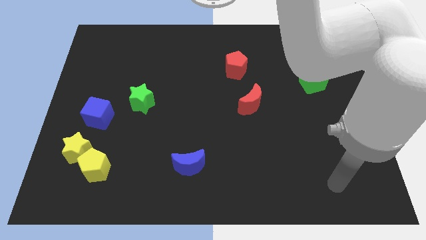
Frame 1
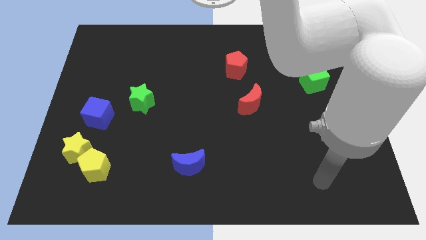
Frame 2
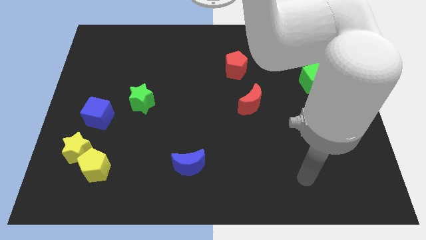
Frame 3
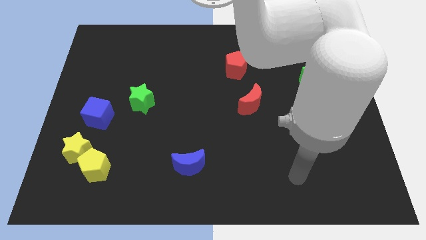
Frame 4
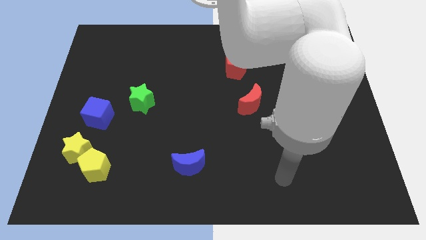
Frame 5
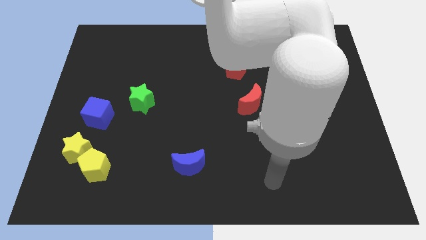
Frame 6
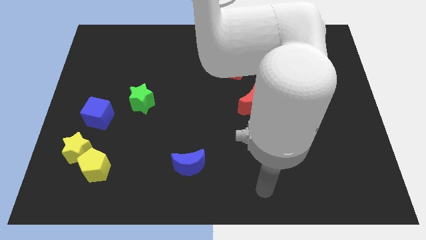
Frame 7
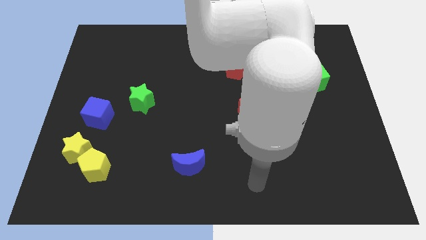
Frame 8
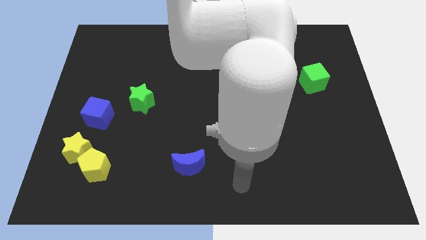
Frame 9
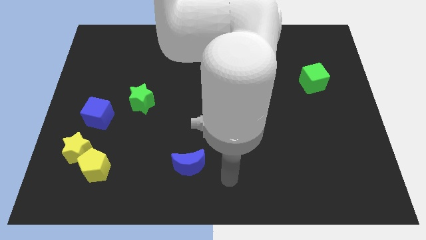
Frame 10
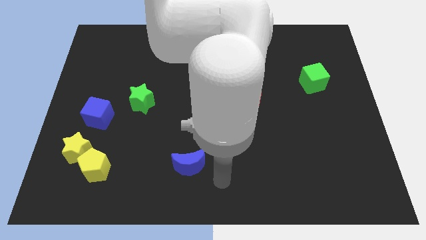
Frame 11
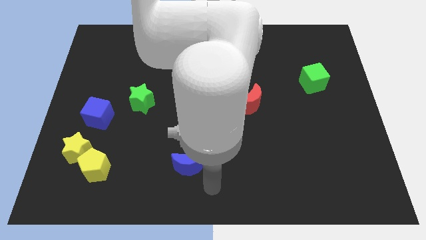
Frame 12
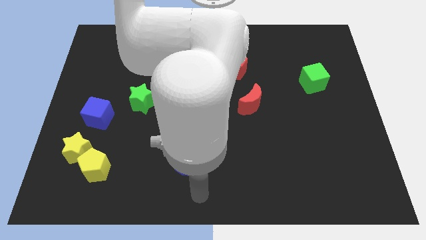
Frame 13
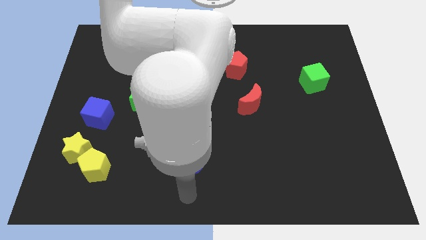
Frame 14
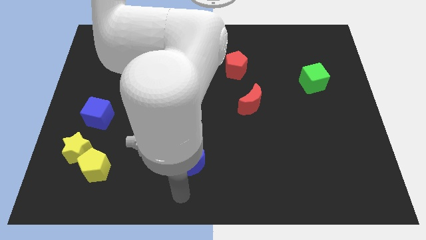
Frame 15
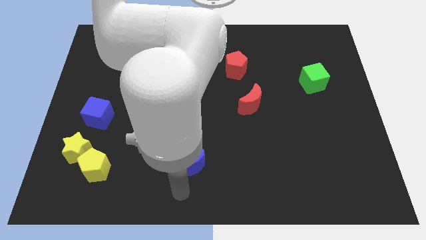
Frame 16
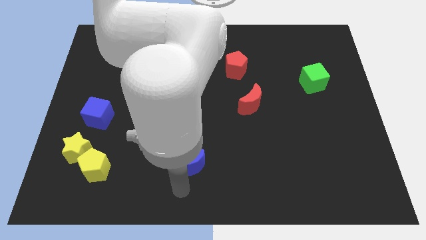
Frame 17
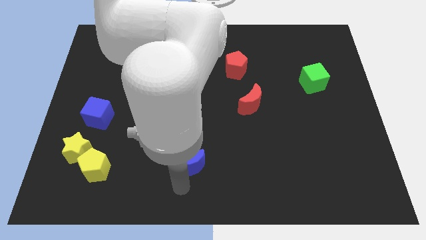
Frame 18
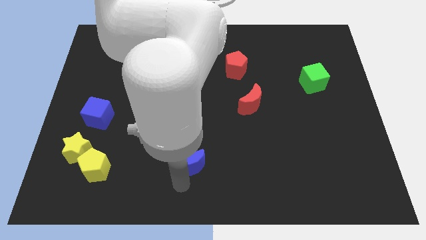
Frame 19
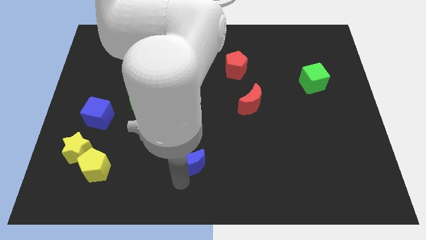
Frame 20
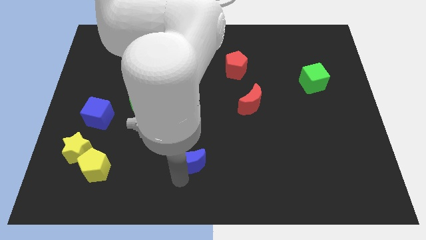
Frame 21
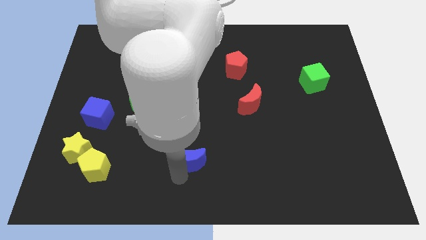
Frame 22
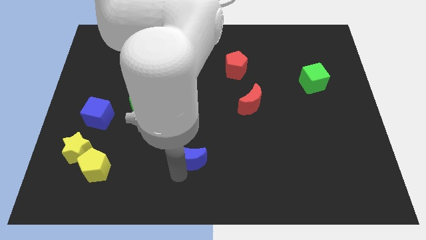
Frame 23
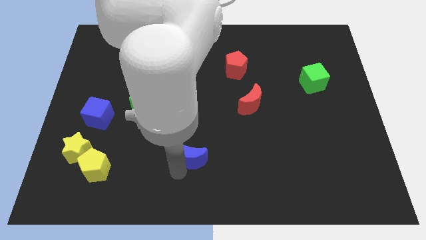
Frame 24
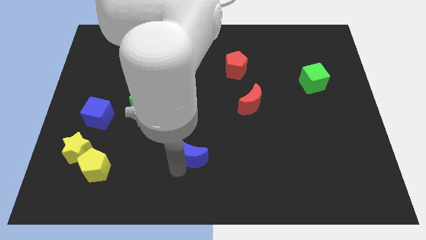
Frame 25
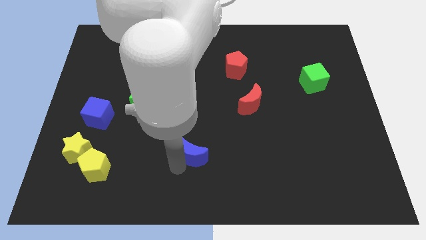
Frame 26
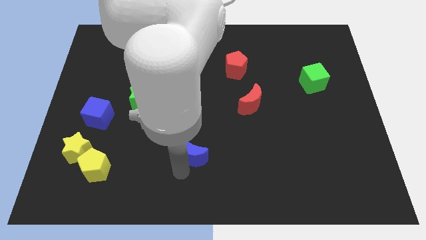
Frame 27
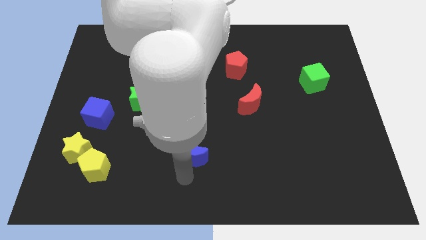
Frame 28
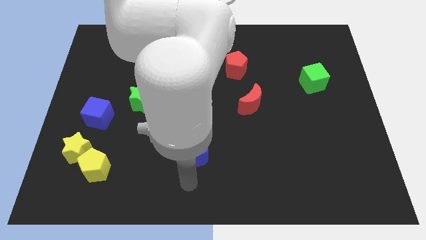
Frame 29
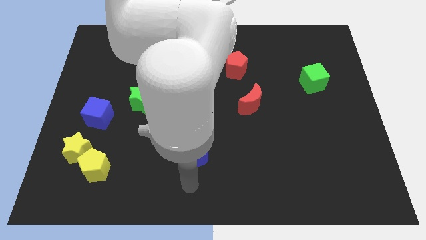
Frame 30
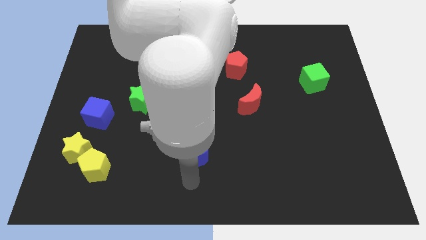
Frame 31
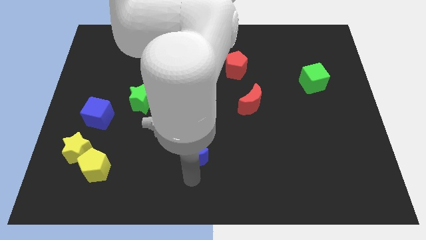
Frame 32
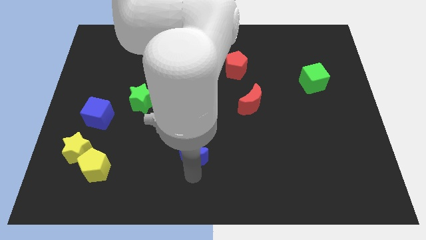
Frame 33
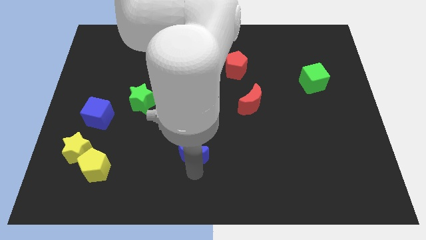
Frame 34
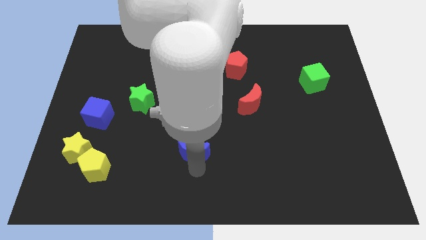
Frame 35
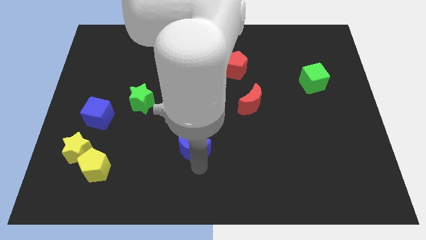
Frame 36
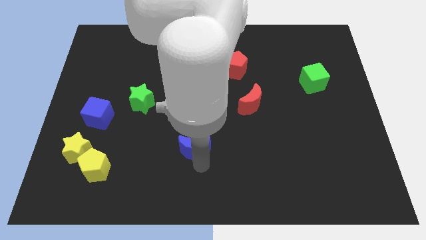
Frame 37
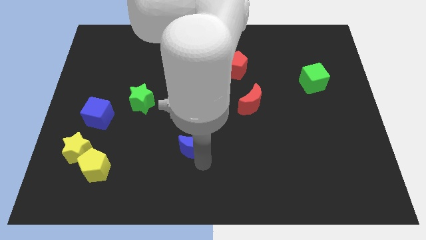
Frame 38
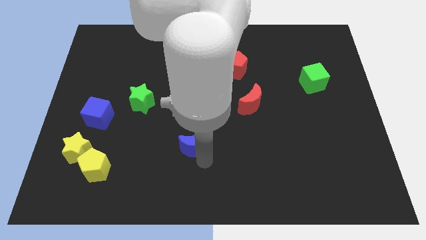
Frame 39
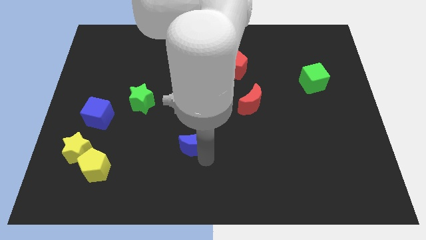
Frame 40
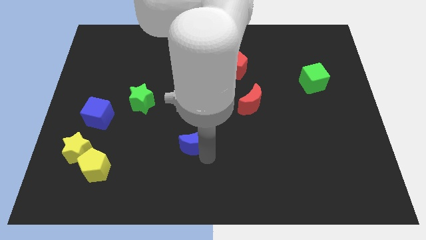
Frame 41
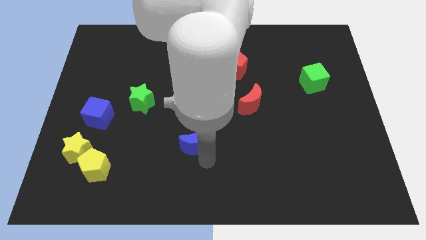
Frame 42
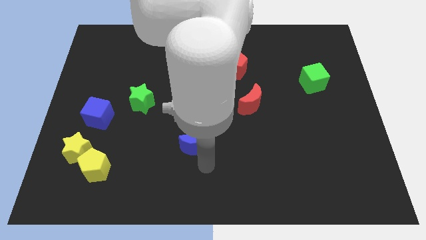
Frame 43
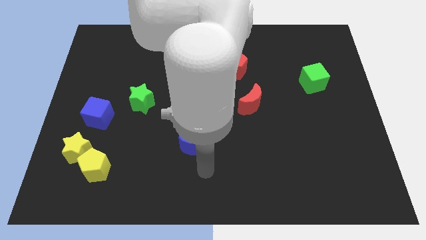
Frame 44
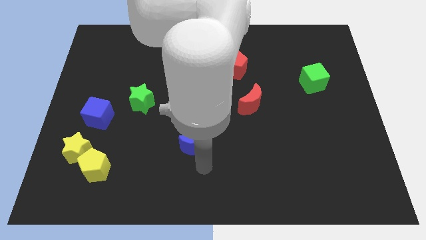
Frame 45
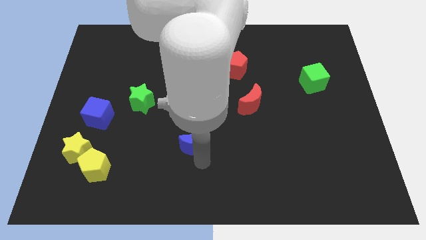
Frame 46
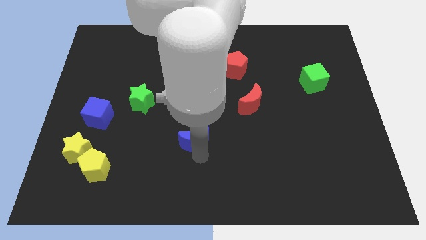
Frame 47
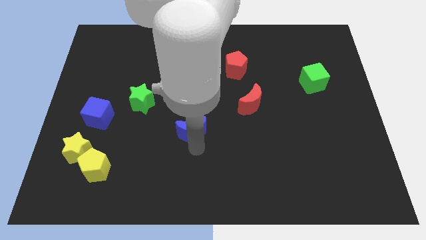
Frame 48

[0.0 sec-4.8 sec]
move the blue moon up a little bit

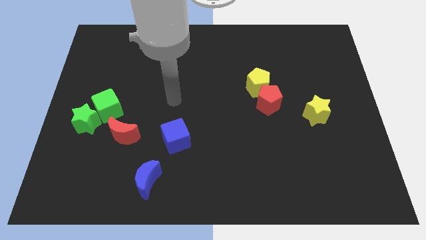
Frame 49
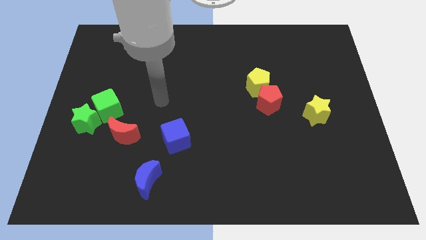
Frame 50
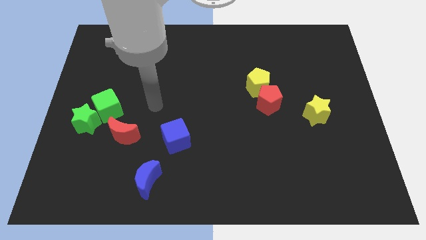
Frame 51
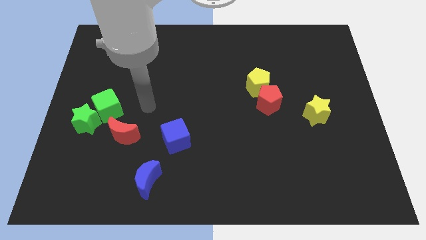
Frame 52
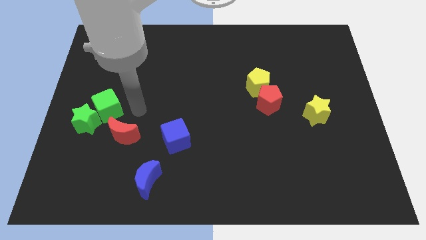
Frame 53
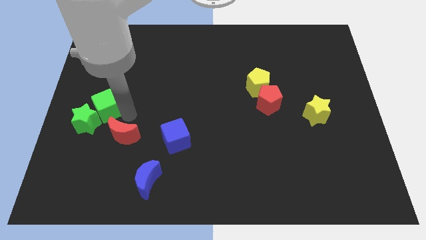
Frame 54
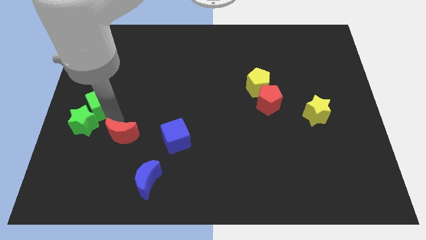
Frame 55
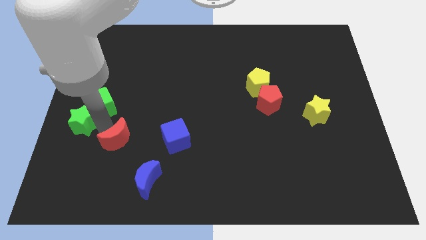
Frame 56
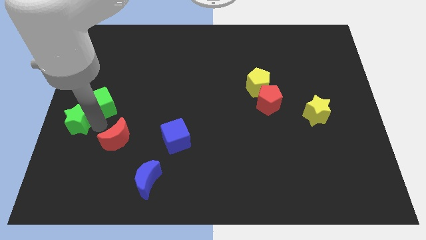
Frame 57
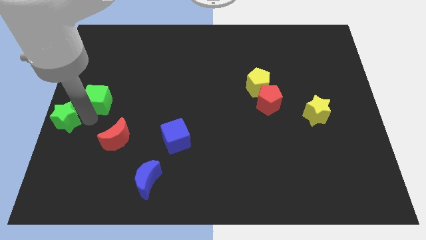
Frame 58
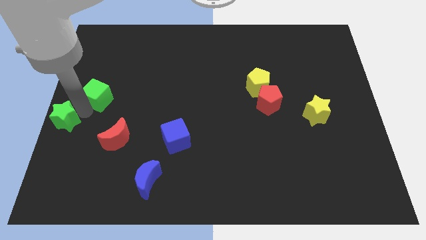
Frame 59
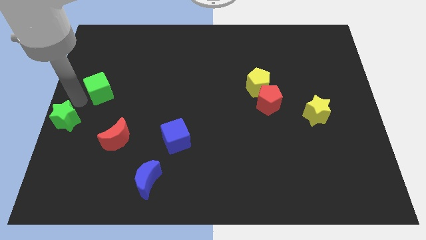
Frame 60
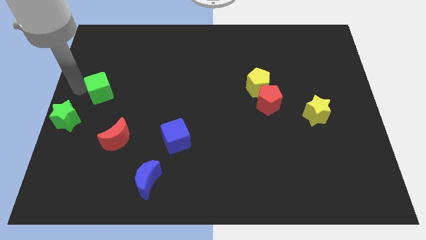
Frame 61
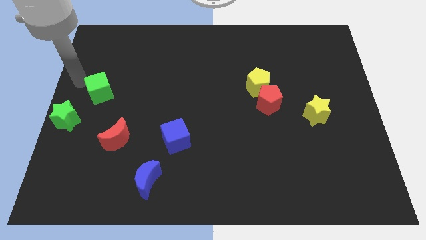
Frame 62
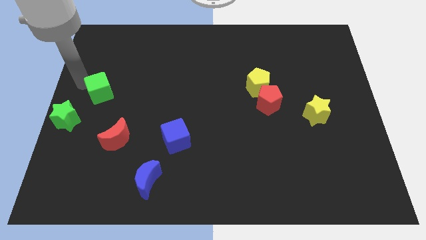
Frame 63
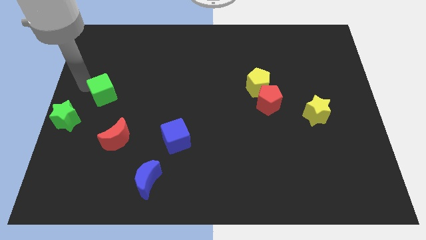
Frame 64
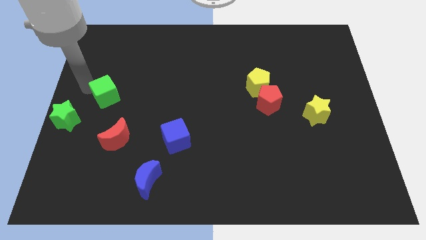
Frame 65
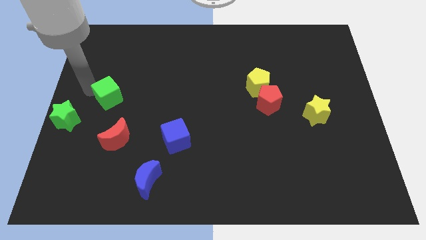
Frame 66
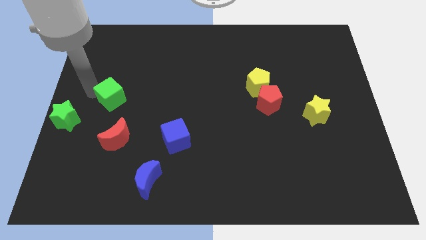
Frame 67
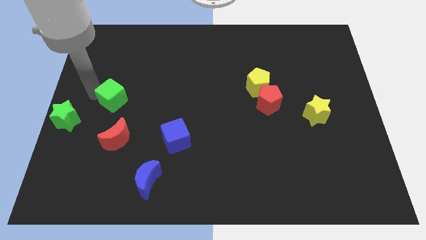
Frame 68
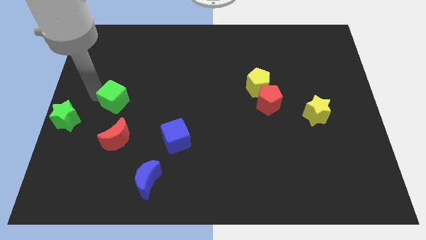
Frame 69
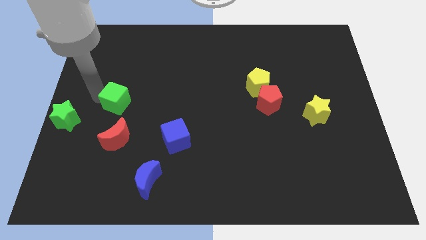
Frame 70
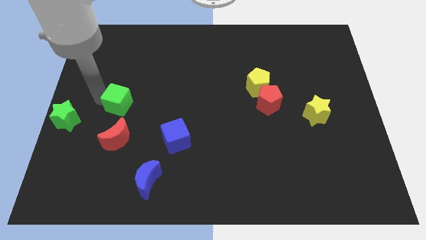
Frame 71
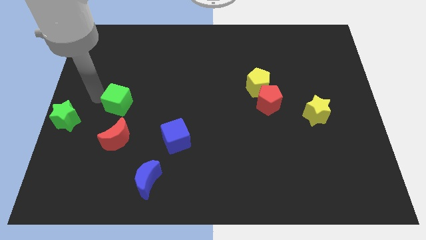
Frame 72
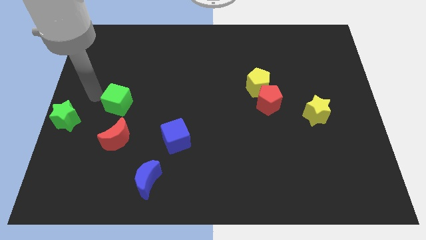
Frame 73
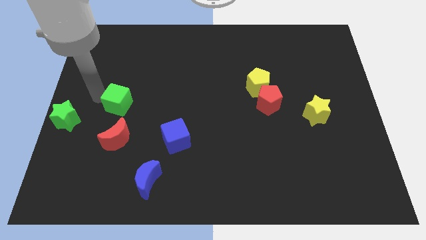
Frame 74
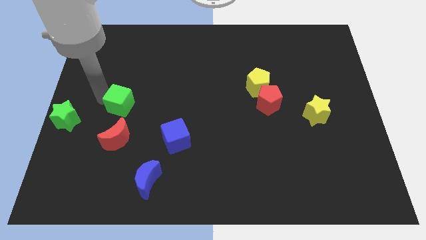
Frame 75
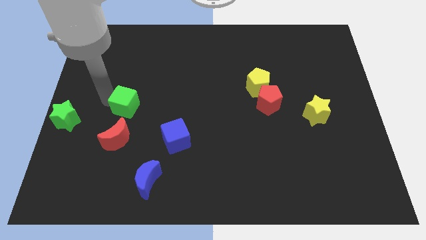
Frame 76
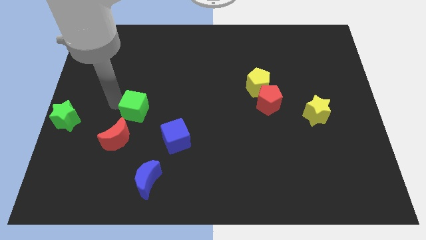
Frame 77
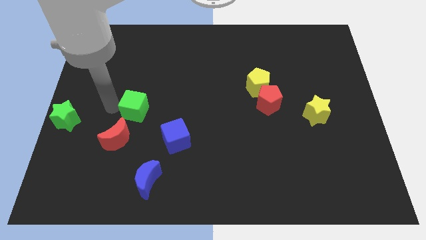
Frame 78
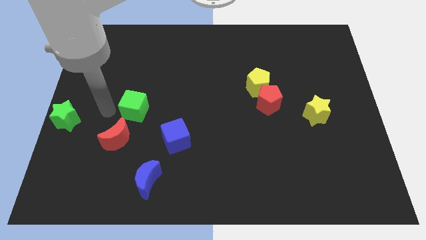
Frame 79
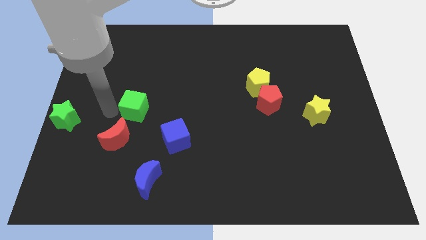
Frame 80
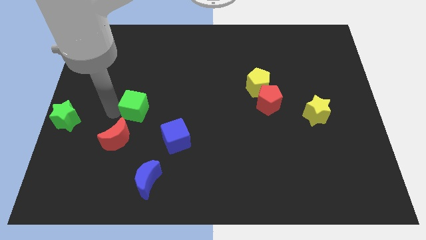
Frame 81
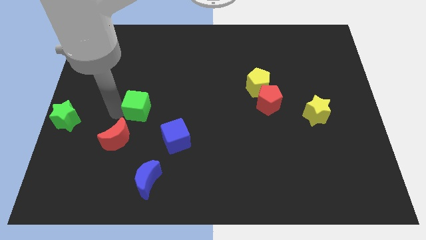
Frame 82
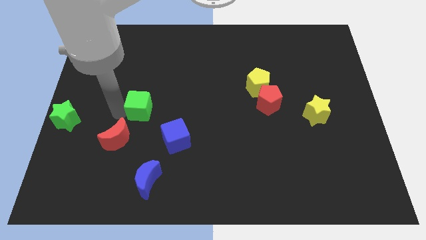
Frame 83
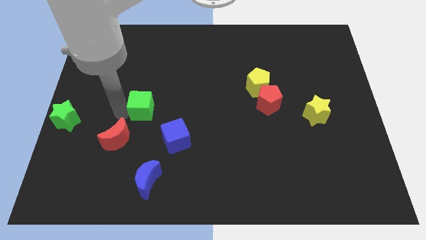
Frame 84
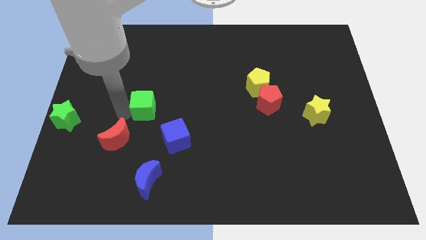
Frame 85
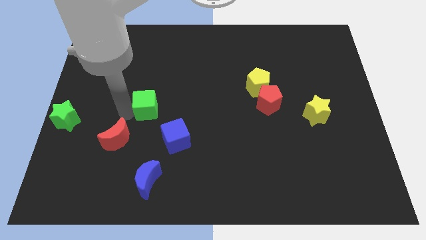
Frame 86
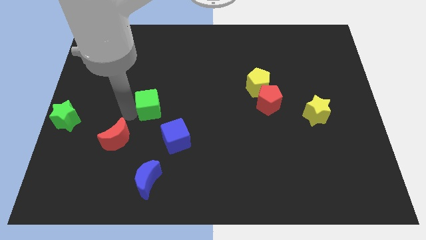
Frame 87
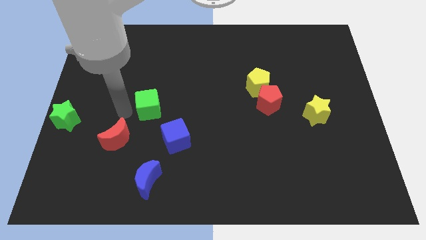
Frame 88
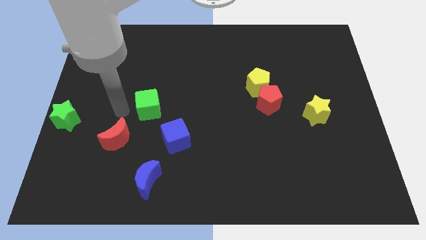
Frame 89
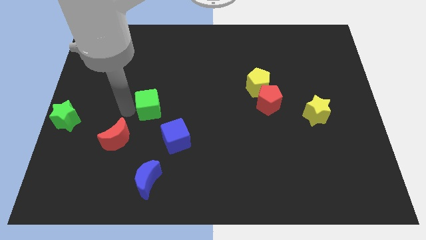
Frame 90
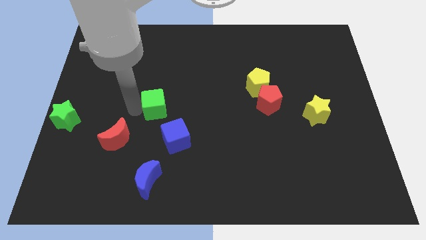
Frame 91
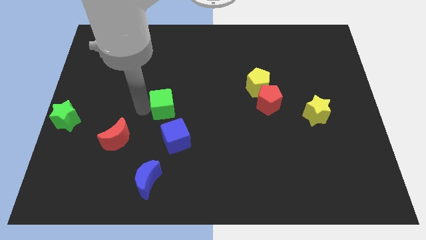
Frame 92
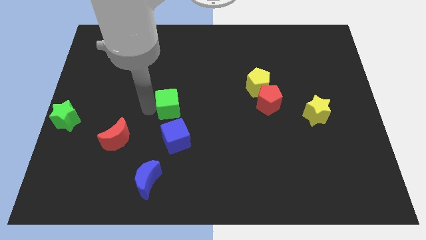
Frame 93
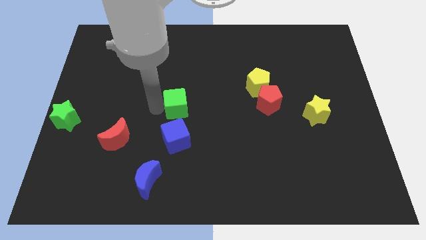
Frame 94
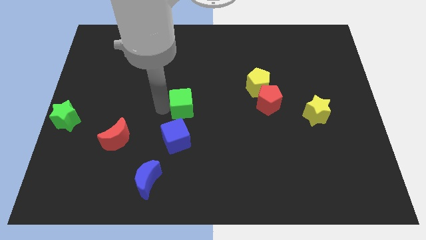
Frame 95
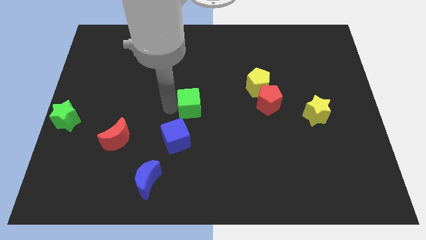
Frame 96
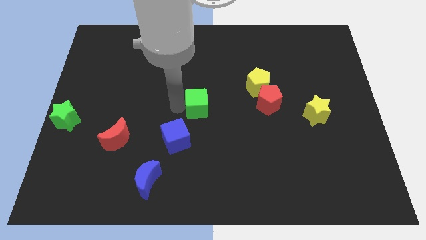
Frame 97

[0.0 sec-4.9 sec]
slide the green cube to the right
